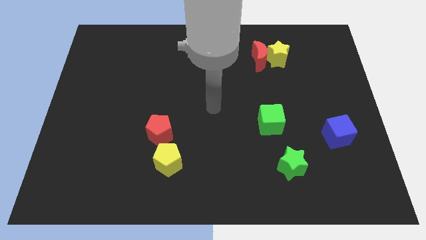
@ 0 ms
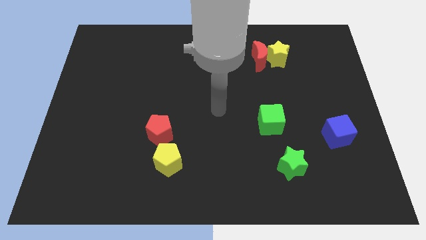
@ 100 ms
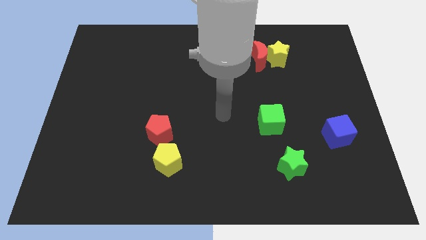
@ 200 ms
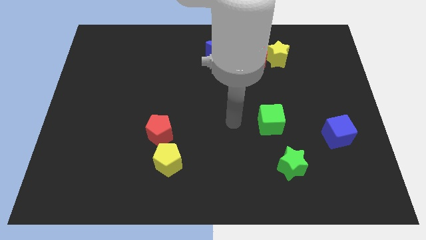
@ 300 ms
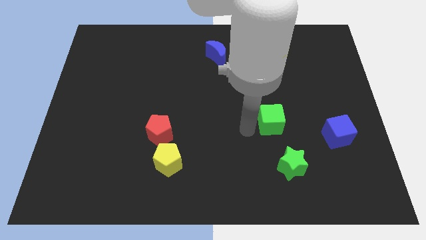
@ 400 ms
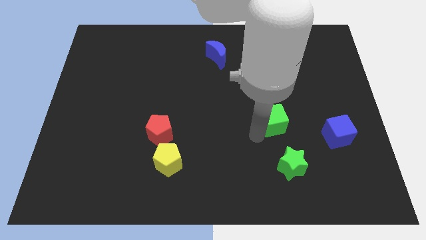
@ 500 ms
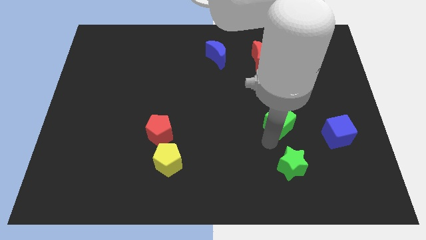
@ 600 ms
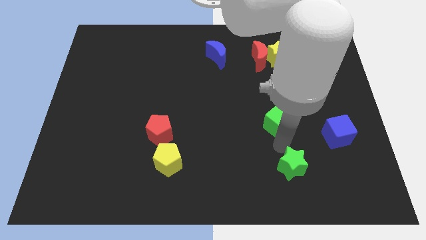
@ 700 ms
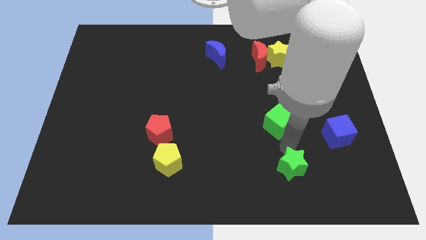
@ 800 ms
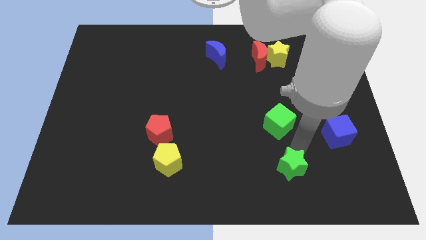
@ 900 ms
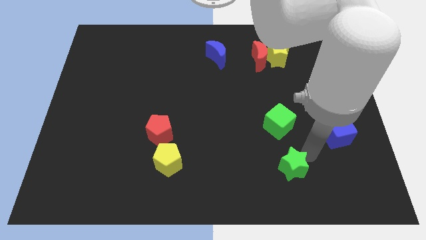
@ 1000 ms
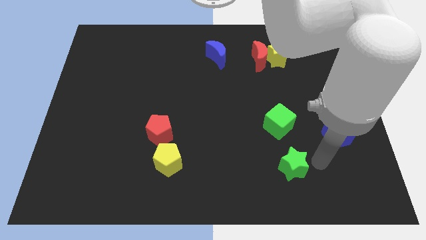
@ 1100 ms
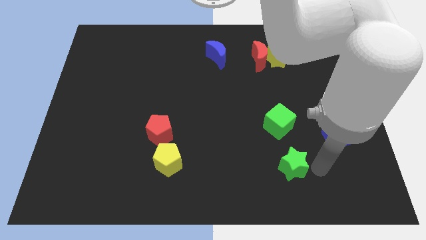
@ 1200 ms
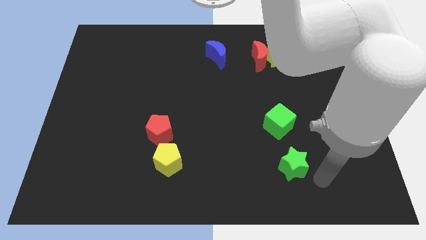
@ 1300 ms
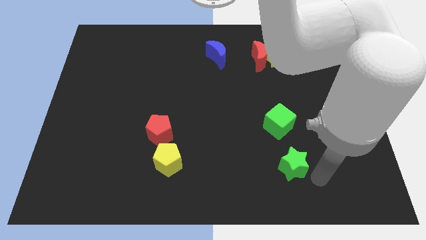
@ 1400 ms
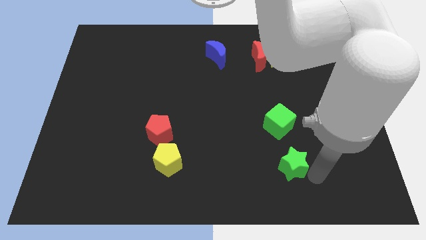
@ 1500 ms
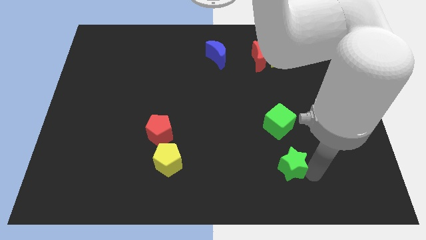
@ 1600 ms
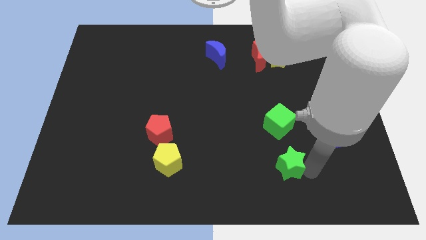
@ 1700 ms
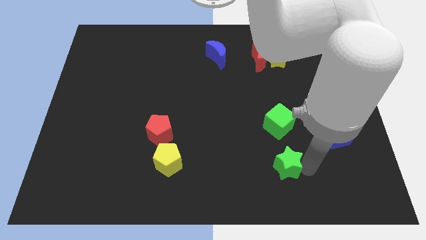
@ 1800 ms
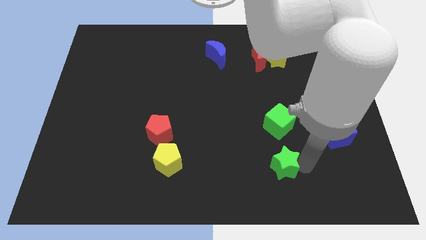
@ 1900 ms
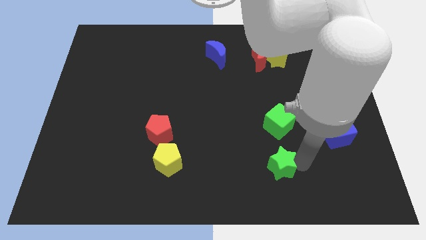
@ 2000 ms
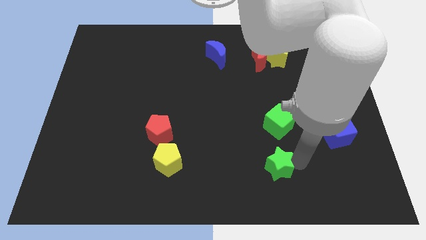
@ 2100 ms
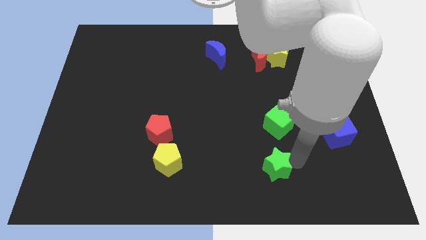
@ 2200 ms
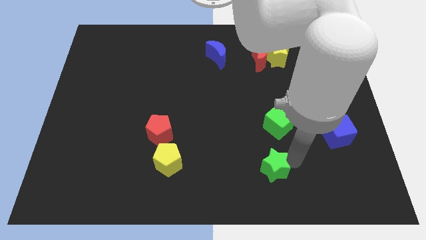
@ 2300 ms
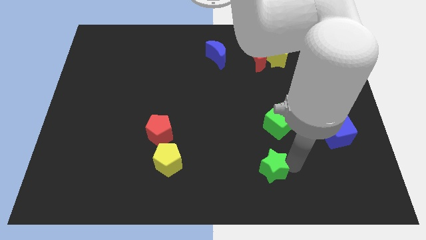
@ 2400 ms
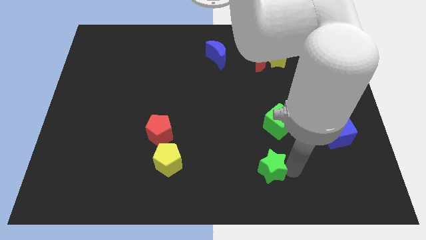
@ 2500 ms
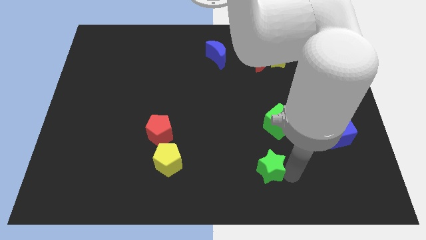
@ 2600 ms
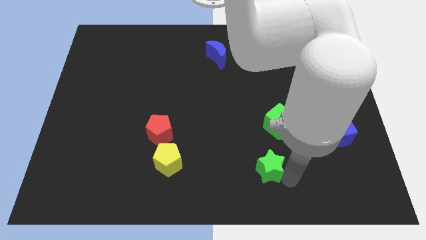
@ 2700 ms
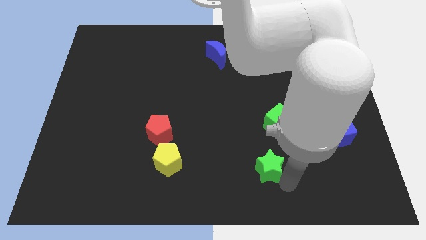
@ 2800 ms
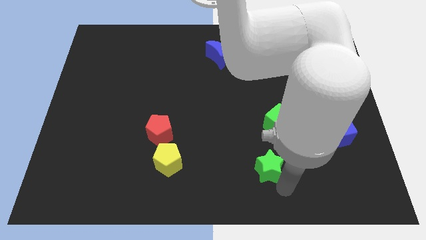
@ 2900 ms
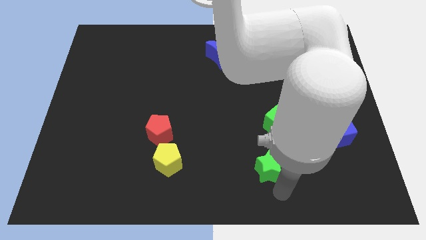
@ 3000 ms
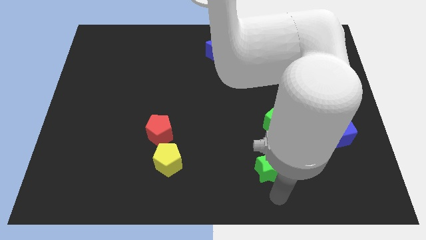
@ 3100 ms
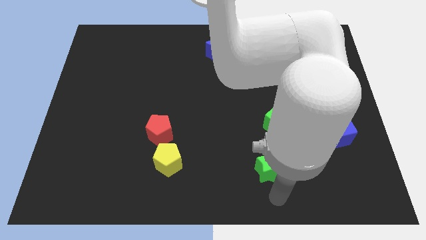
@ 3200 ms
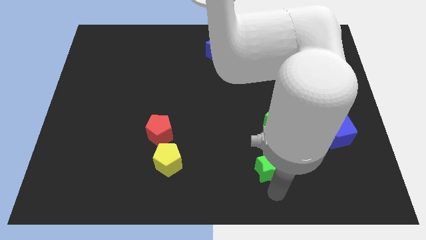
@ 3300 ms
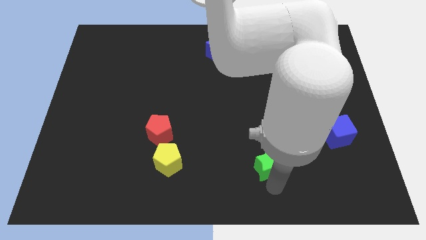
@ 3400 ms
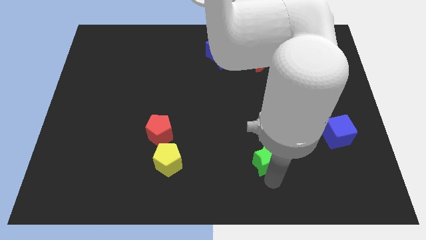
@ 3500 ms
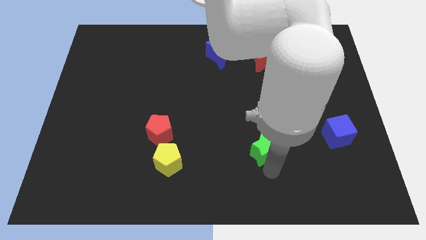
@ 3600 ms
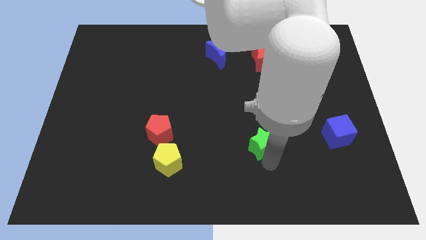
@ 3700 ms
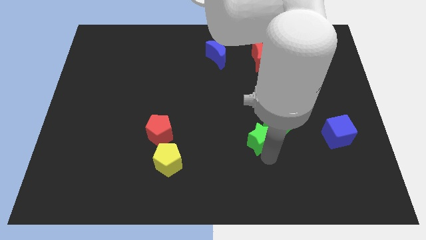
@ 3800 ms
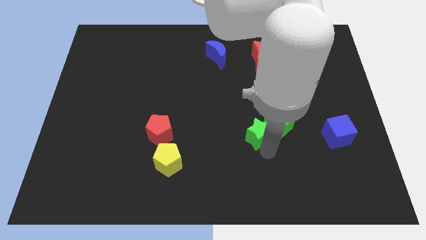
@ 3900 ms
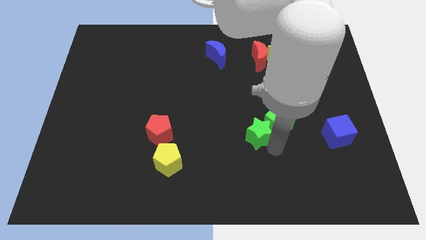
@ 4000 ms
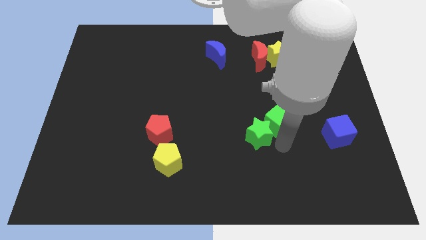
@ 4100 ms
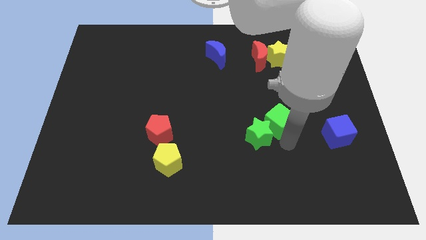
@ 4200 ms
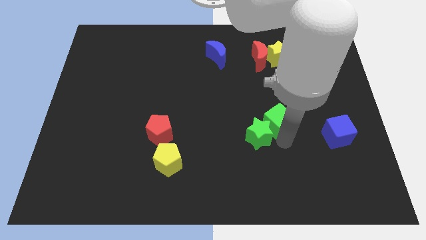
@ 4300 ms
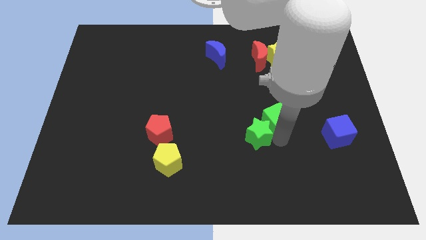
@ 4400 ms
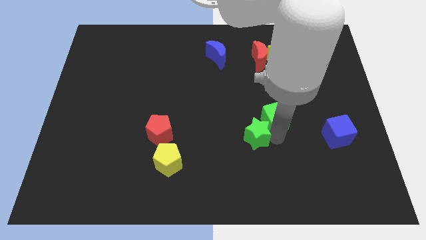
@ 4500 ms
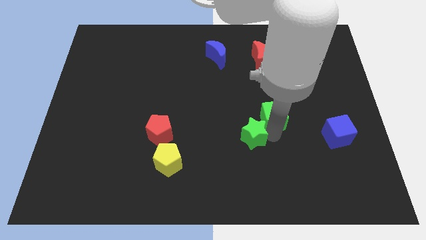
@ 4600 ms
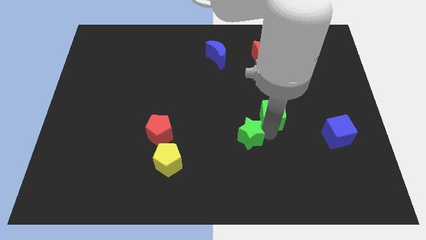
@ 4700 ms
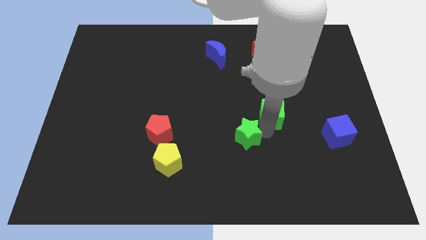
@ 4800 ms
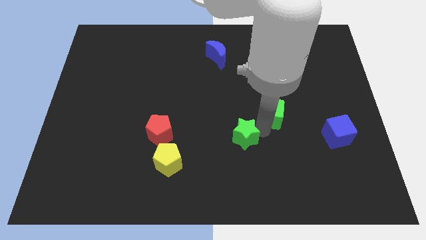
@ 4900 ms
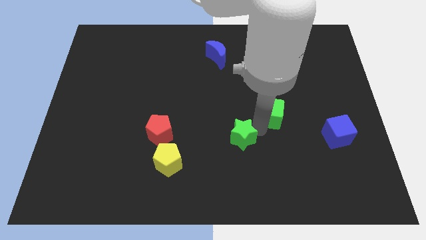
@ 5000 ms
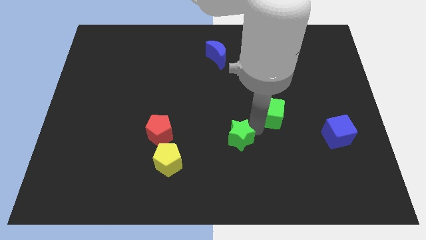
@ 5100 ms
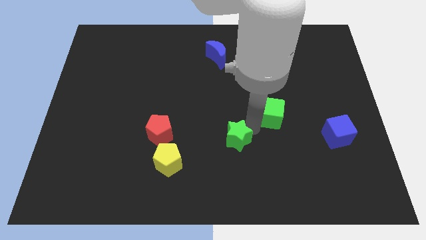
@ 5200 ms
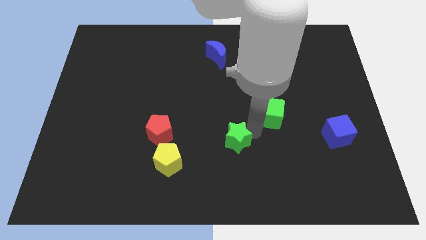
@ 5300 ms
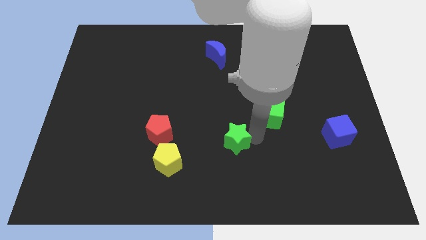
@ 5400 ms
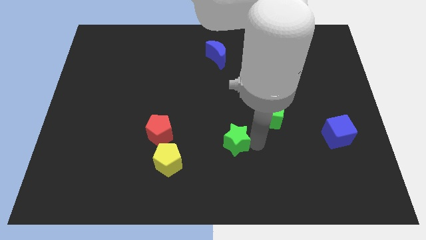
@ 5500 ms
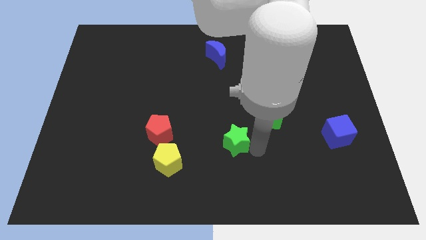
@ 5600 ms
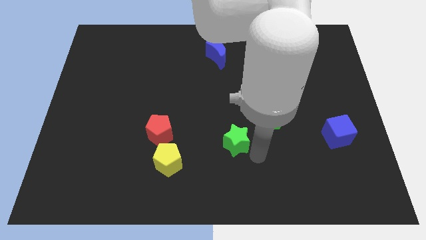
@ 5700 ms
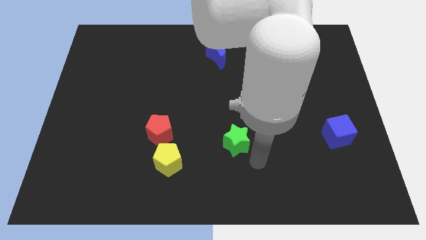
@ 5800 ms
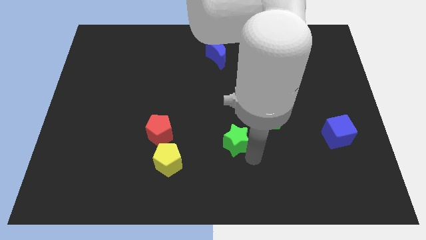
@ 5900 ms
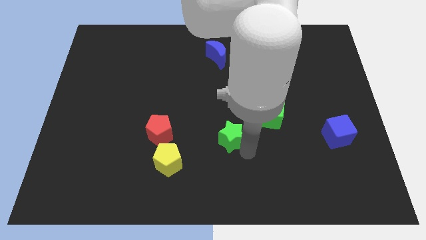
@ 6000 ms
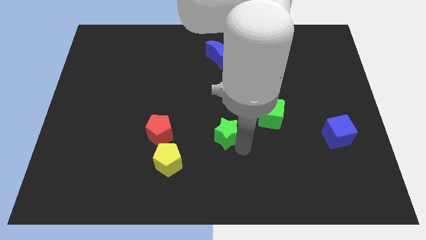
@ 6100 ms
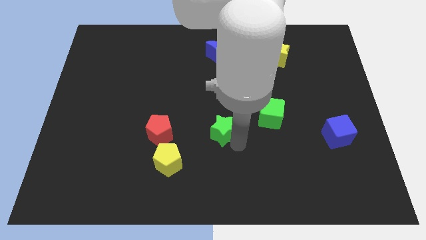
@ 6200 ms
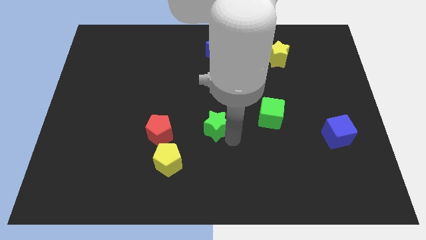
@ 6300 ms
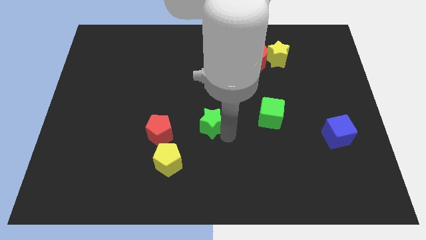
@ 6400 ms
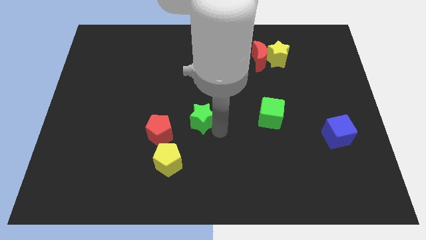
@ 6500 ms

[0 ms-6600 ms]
move the green star upwards and then left

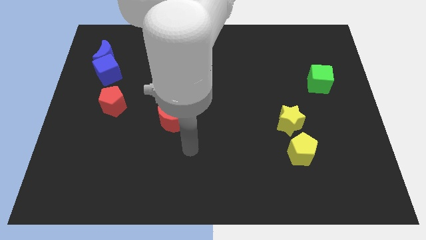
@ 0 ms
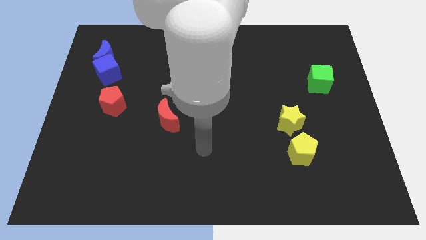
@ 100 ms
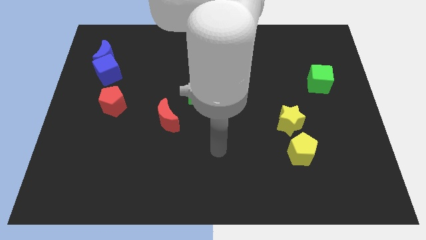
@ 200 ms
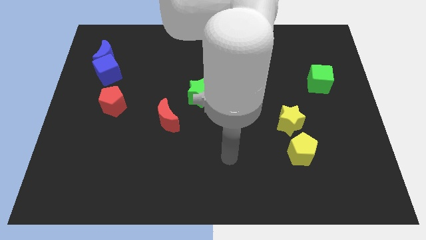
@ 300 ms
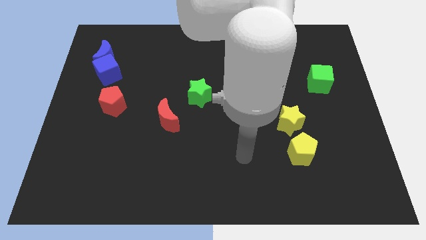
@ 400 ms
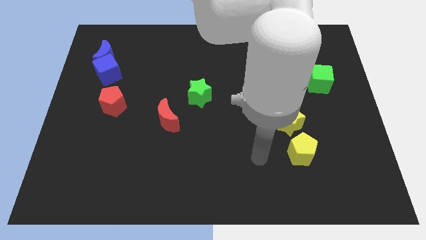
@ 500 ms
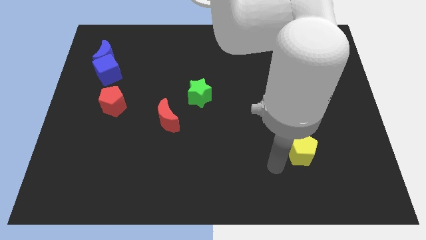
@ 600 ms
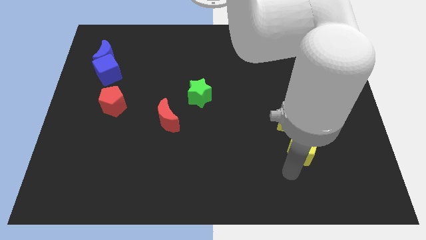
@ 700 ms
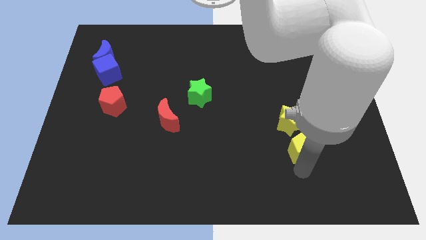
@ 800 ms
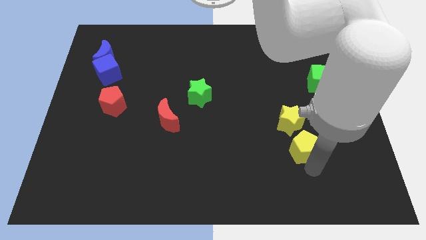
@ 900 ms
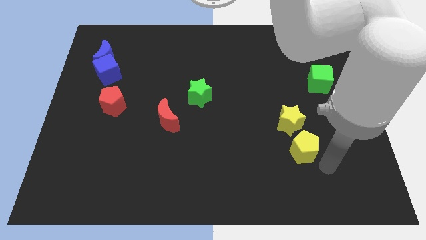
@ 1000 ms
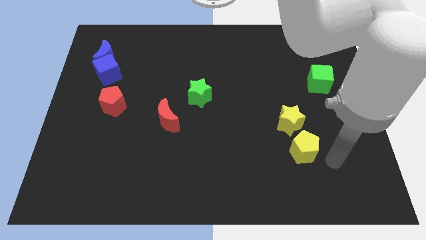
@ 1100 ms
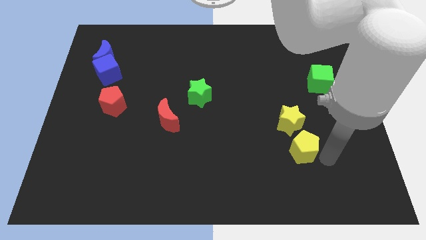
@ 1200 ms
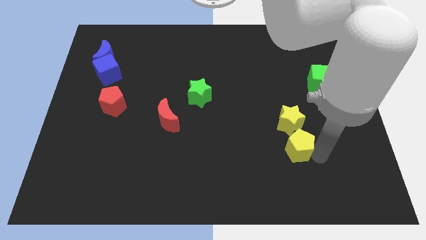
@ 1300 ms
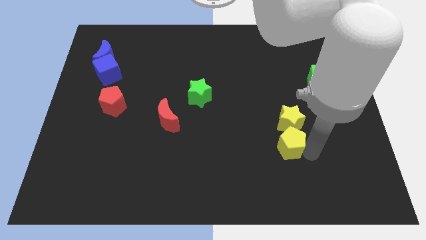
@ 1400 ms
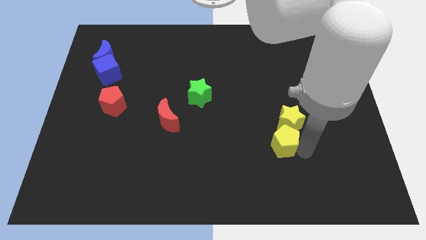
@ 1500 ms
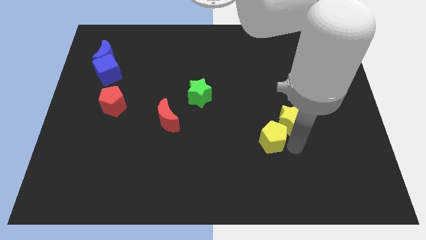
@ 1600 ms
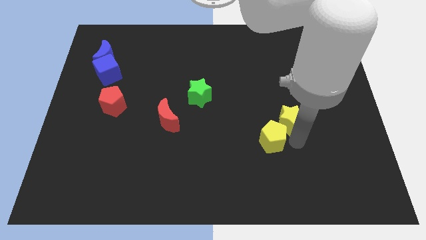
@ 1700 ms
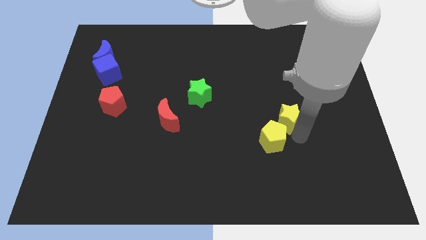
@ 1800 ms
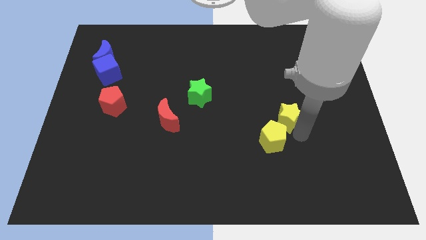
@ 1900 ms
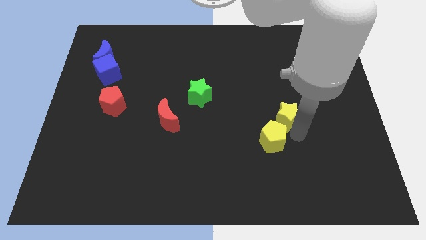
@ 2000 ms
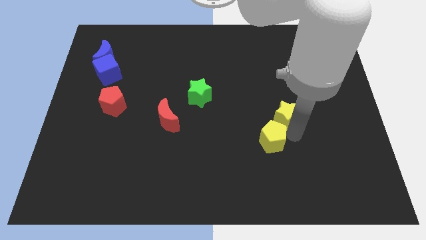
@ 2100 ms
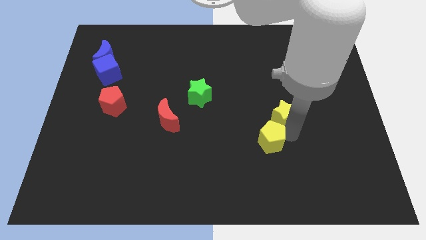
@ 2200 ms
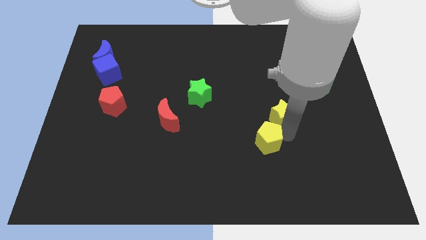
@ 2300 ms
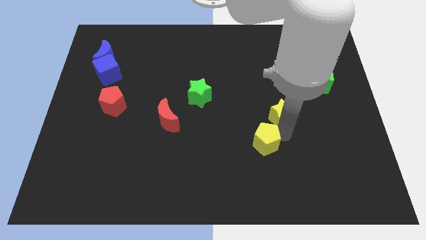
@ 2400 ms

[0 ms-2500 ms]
move the yellow pentagon left a little bit
